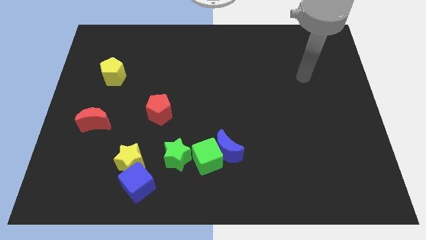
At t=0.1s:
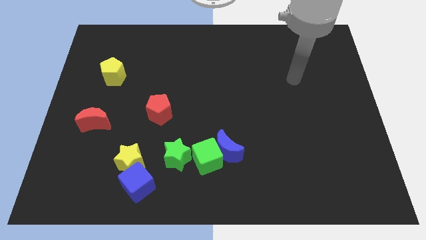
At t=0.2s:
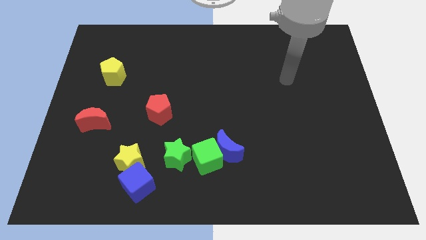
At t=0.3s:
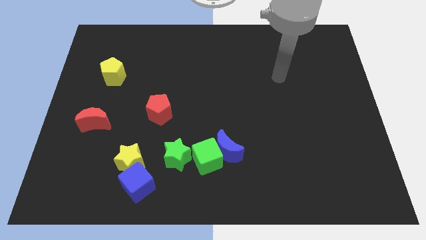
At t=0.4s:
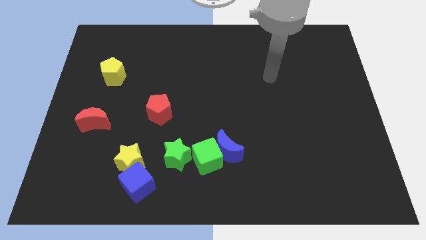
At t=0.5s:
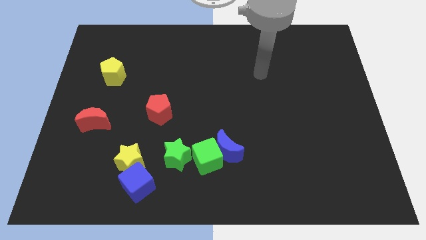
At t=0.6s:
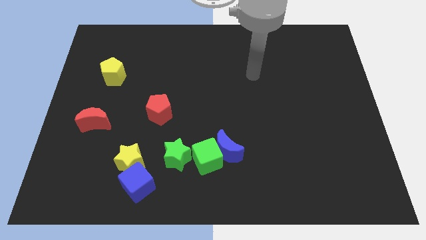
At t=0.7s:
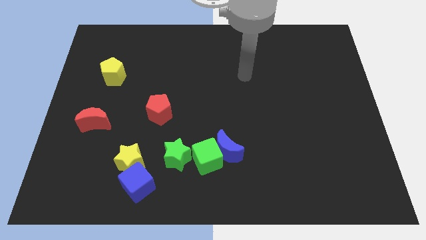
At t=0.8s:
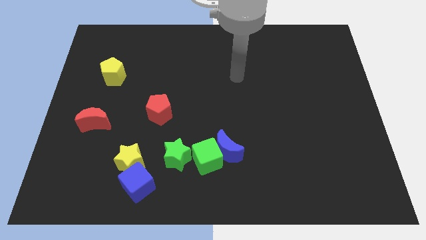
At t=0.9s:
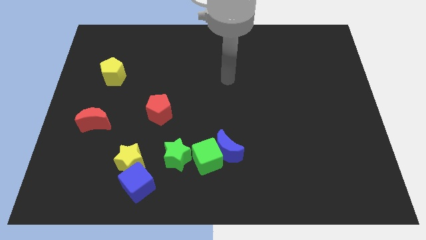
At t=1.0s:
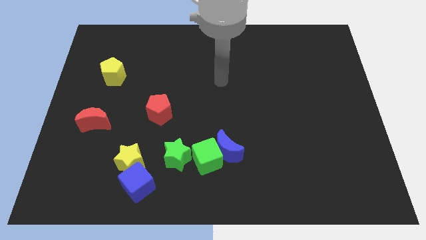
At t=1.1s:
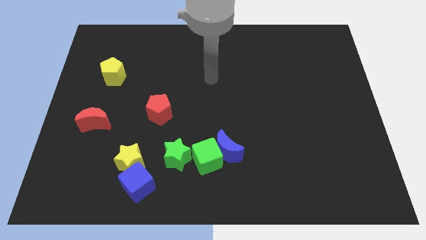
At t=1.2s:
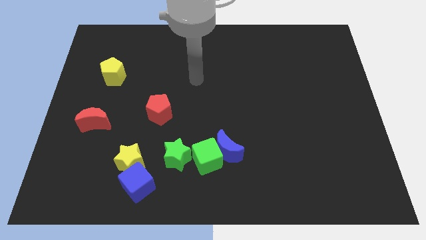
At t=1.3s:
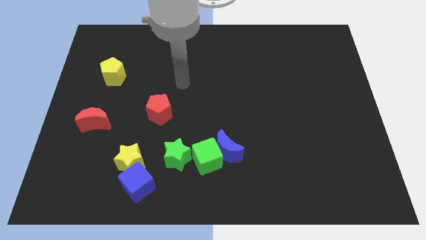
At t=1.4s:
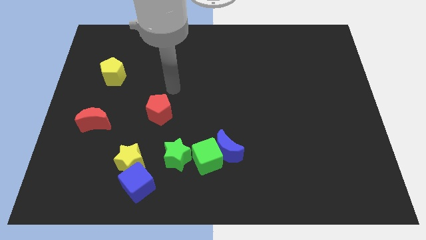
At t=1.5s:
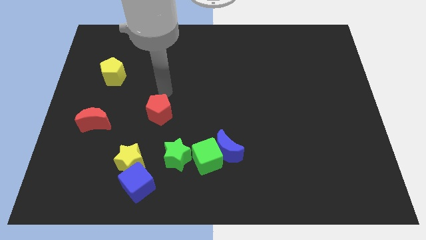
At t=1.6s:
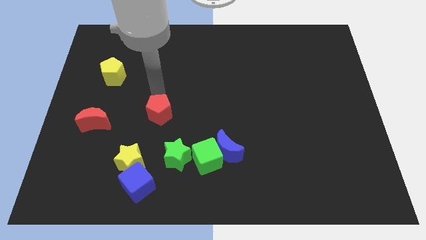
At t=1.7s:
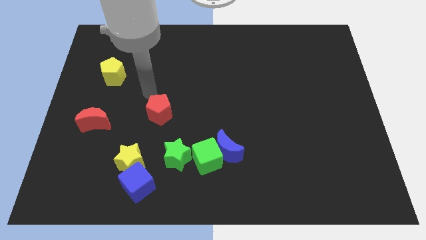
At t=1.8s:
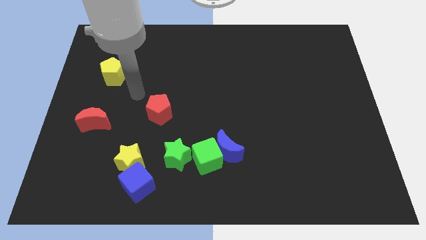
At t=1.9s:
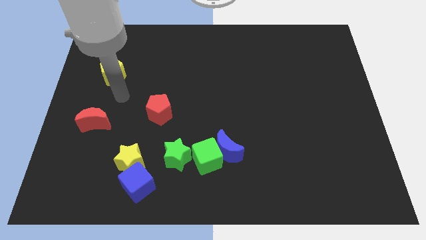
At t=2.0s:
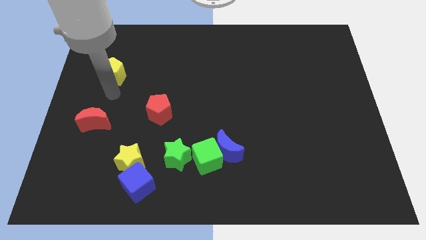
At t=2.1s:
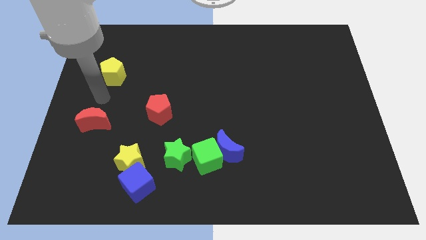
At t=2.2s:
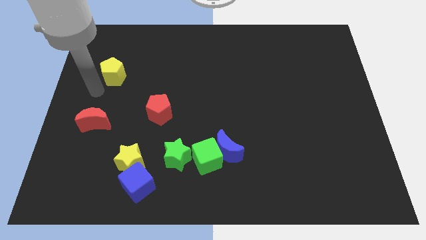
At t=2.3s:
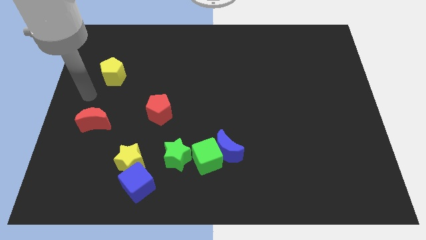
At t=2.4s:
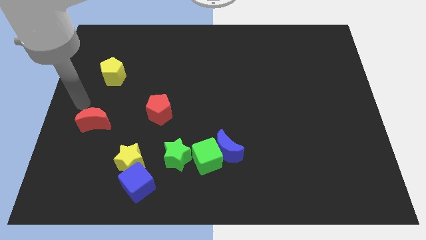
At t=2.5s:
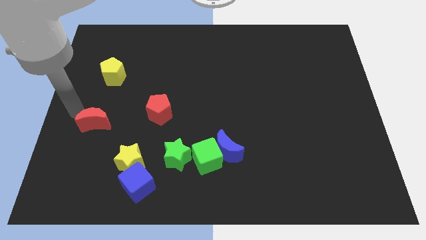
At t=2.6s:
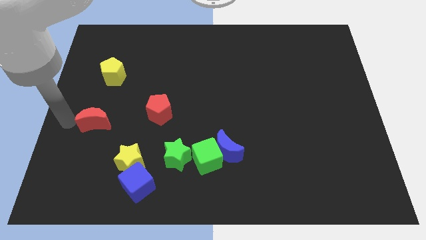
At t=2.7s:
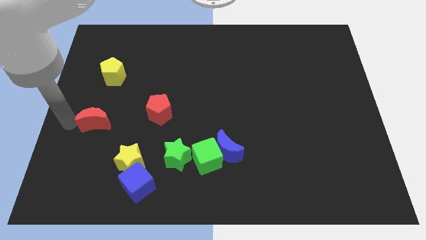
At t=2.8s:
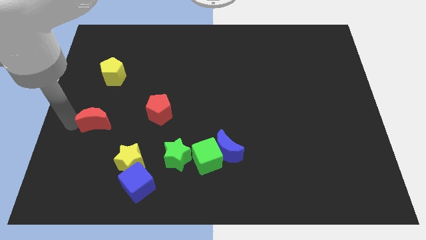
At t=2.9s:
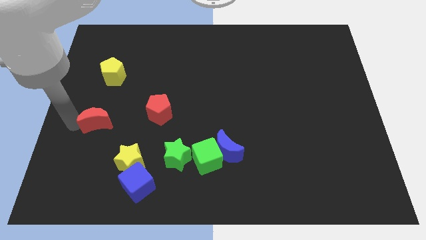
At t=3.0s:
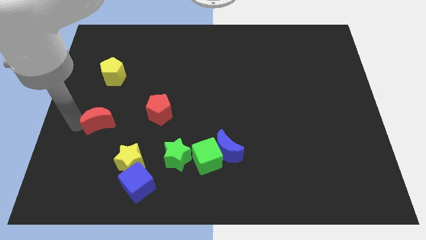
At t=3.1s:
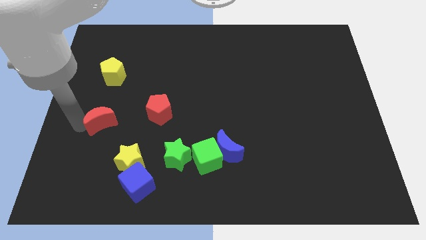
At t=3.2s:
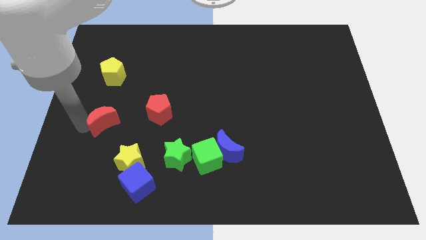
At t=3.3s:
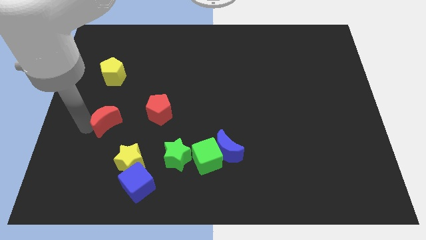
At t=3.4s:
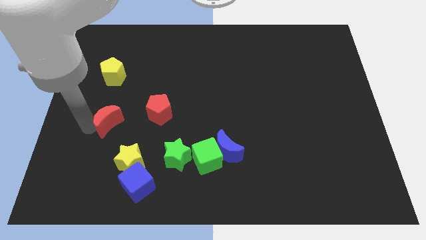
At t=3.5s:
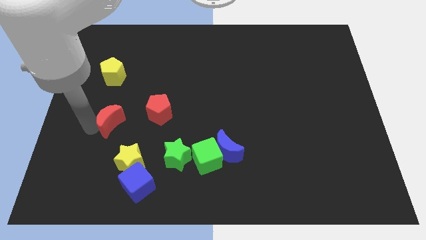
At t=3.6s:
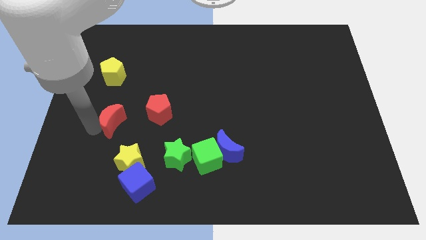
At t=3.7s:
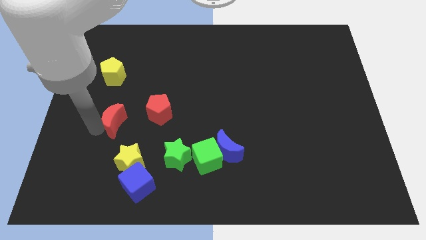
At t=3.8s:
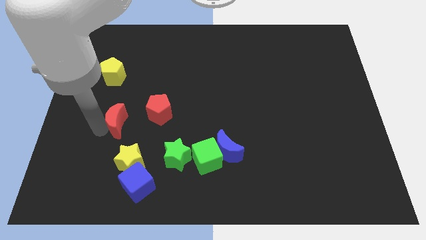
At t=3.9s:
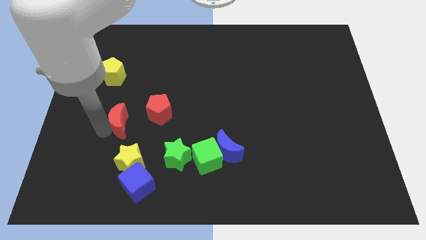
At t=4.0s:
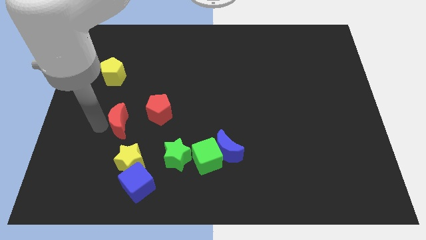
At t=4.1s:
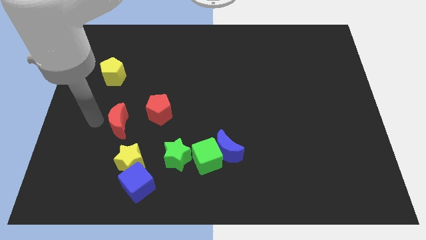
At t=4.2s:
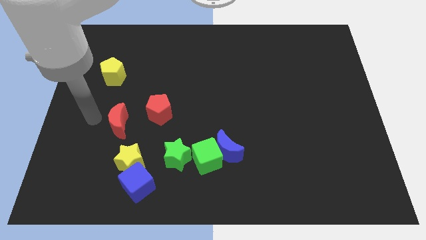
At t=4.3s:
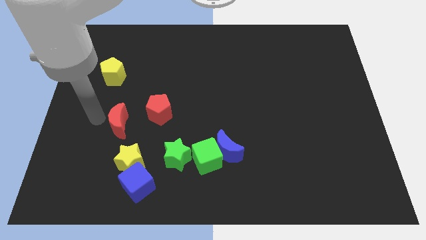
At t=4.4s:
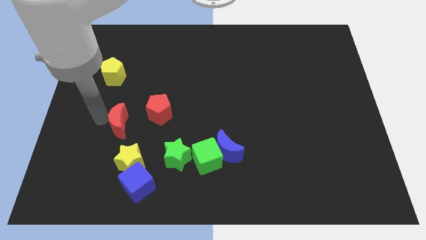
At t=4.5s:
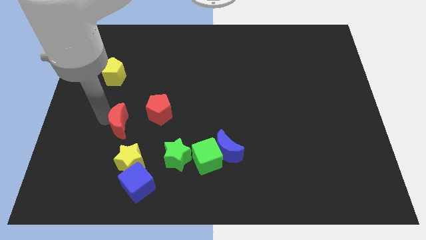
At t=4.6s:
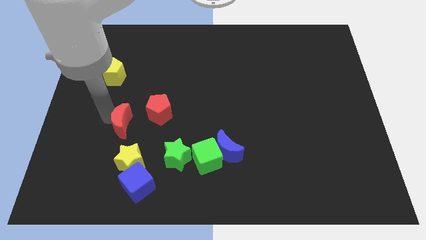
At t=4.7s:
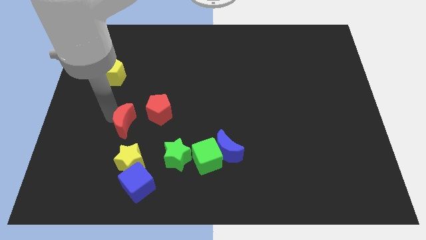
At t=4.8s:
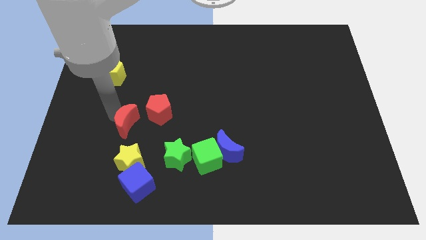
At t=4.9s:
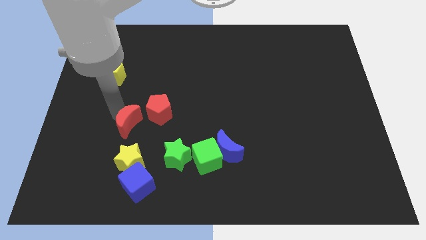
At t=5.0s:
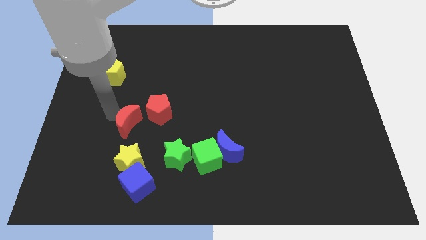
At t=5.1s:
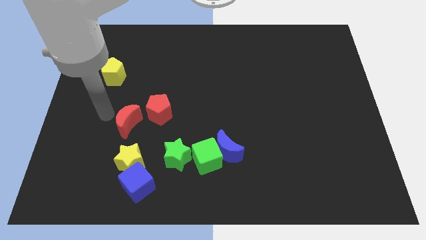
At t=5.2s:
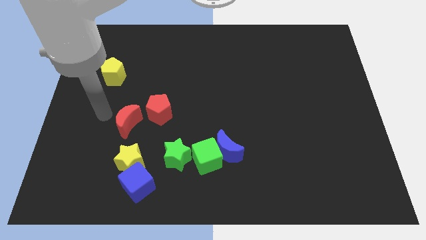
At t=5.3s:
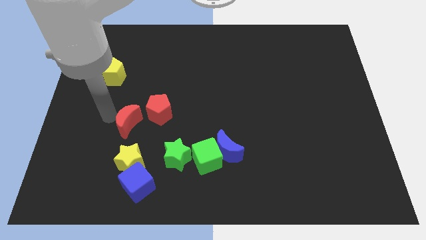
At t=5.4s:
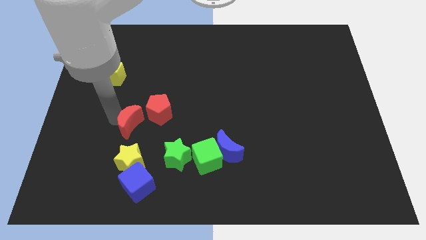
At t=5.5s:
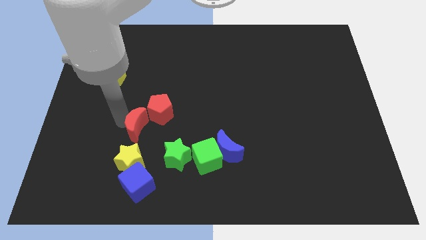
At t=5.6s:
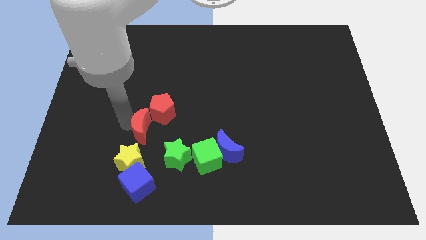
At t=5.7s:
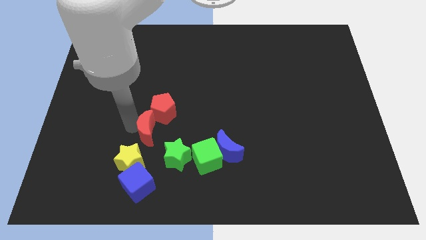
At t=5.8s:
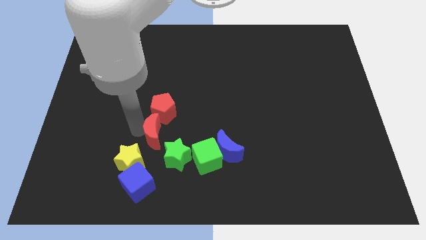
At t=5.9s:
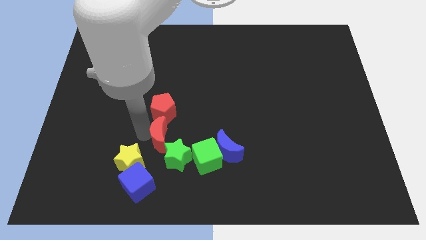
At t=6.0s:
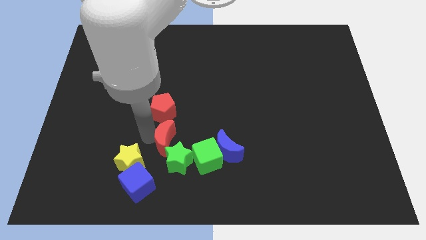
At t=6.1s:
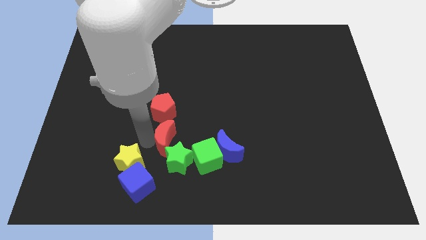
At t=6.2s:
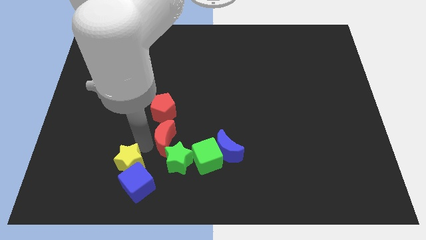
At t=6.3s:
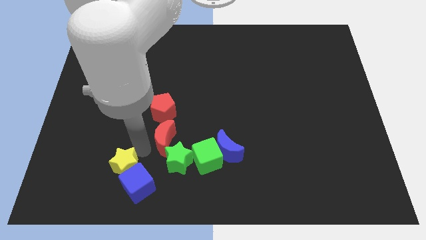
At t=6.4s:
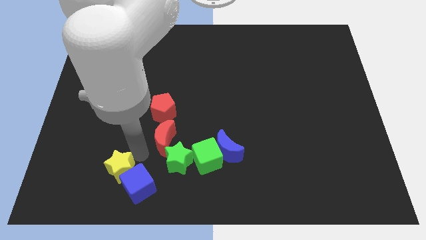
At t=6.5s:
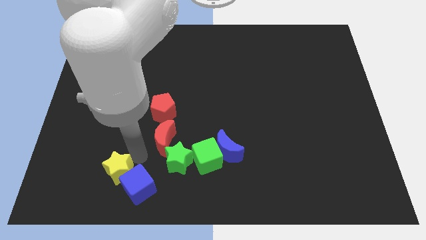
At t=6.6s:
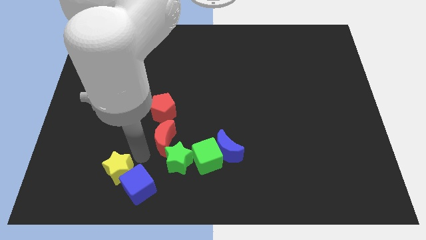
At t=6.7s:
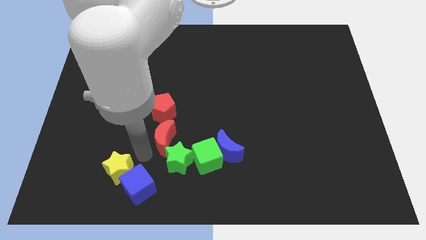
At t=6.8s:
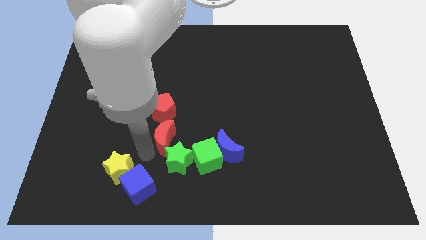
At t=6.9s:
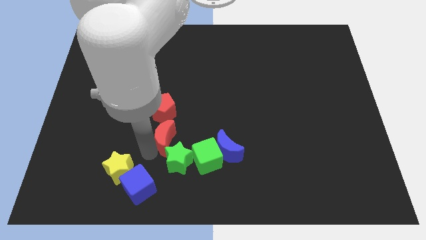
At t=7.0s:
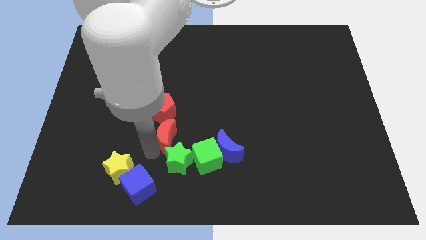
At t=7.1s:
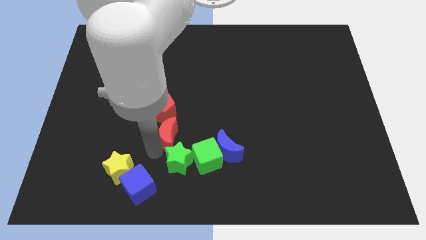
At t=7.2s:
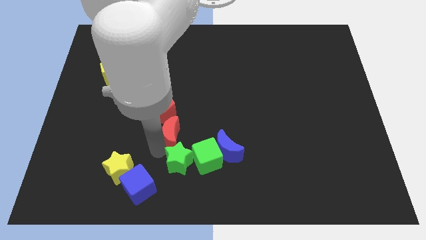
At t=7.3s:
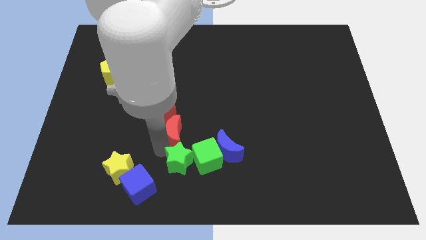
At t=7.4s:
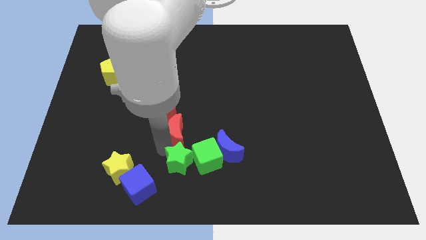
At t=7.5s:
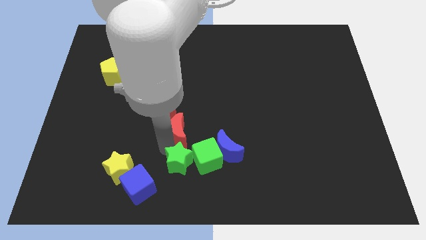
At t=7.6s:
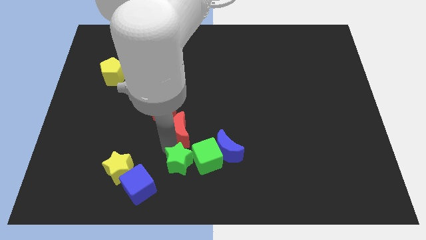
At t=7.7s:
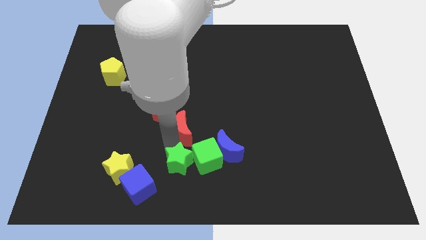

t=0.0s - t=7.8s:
push the red moon right
